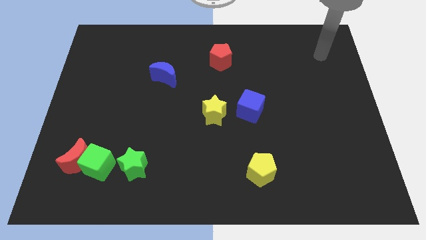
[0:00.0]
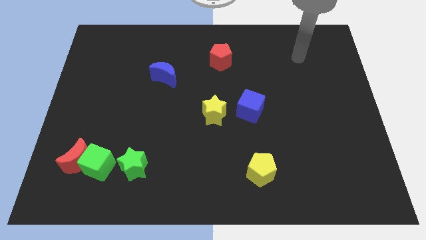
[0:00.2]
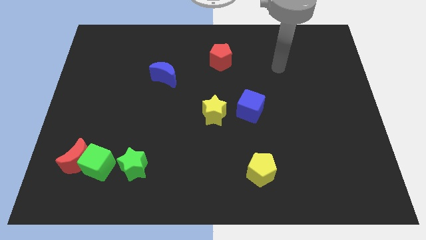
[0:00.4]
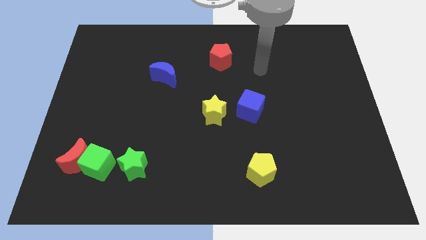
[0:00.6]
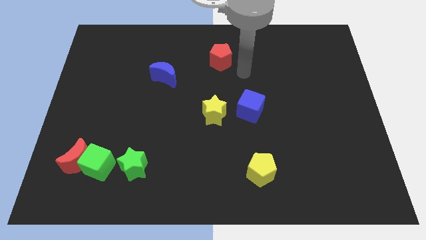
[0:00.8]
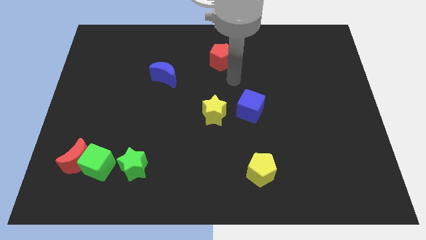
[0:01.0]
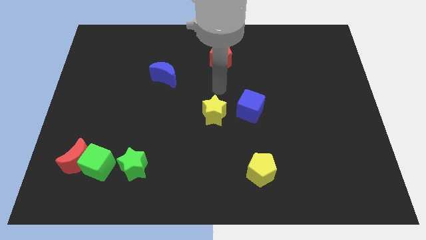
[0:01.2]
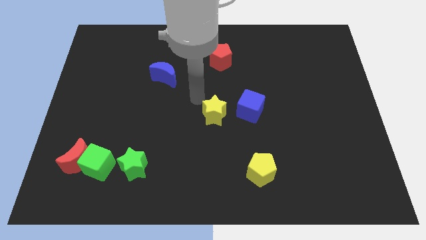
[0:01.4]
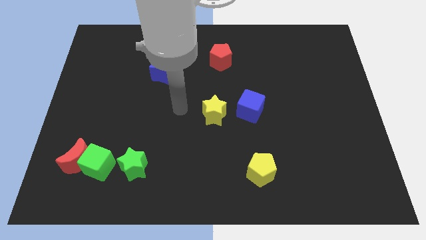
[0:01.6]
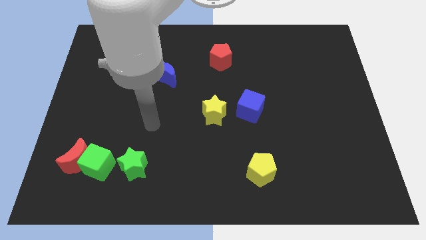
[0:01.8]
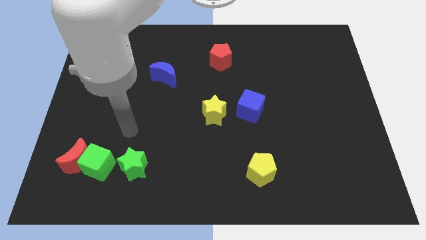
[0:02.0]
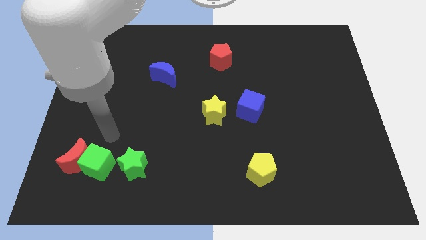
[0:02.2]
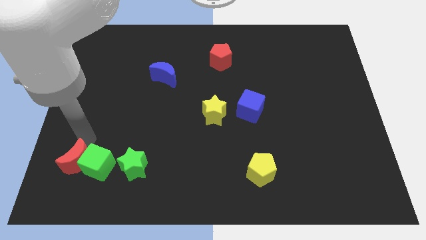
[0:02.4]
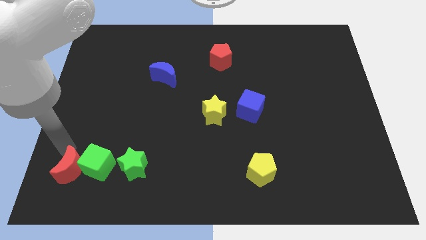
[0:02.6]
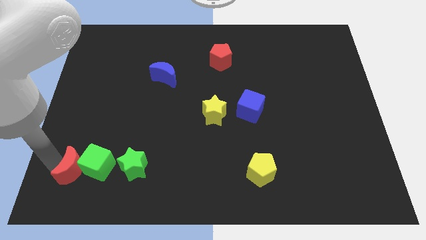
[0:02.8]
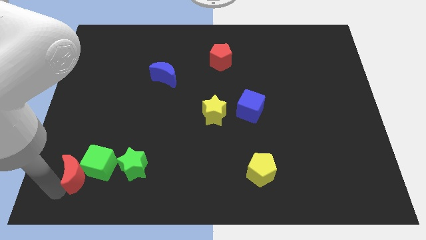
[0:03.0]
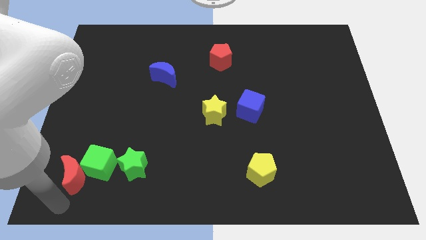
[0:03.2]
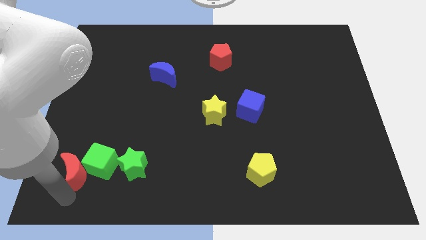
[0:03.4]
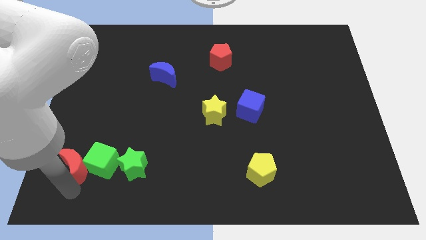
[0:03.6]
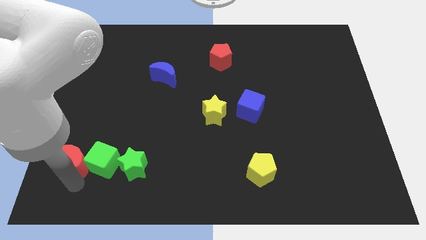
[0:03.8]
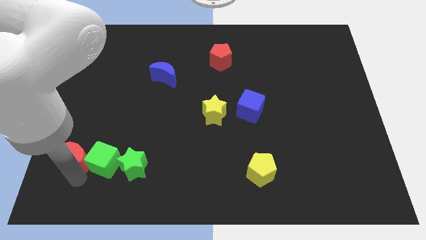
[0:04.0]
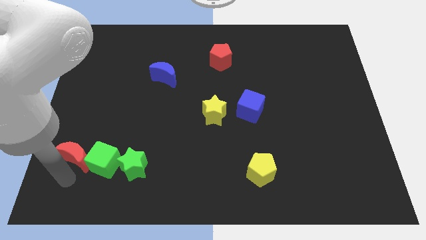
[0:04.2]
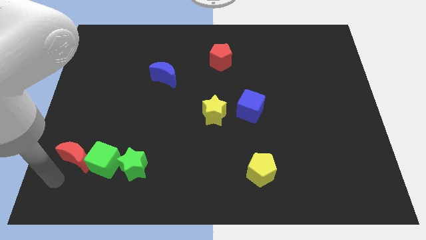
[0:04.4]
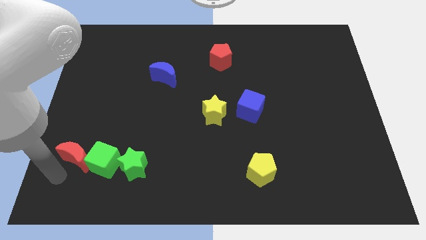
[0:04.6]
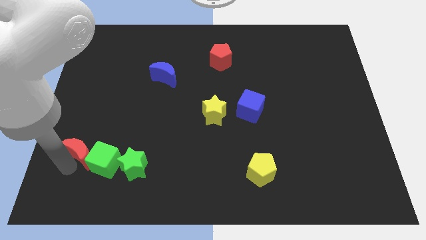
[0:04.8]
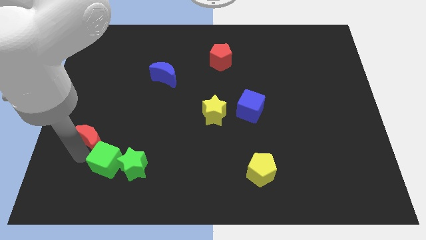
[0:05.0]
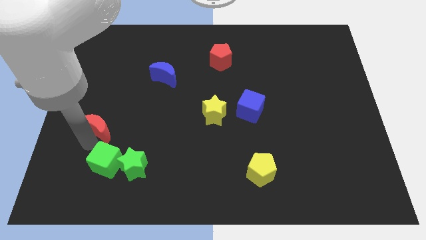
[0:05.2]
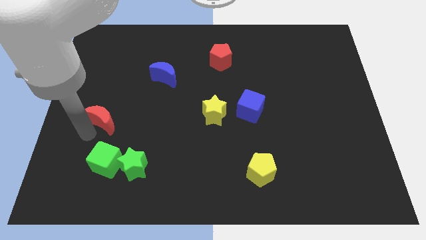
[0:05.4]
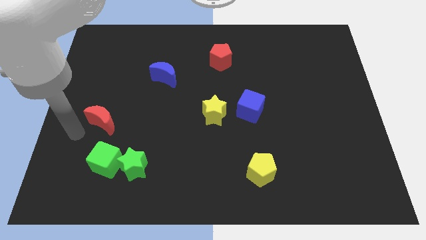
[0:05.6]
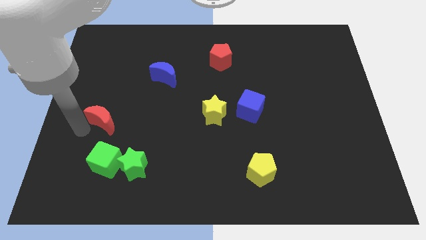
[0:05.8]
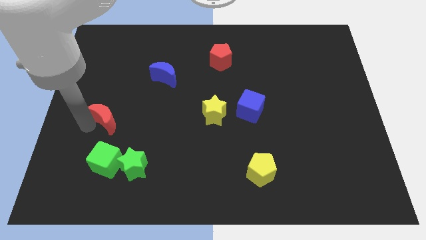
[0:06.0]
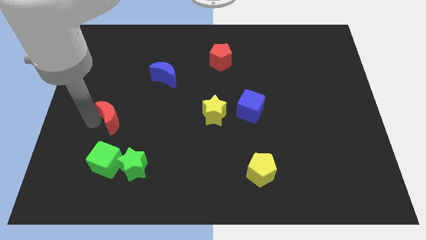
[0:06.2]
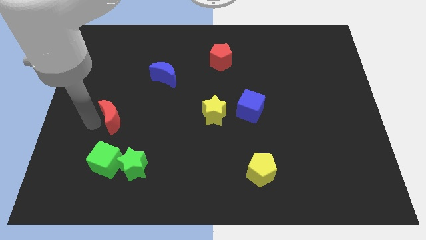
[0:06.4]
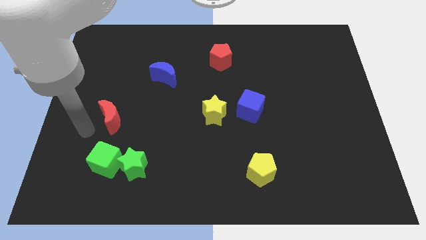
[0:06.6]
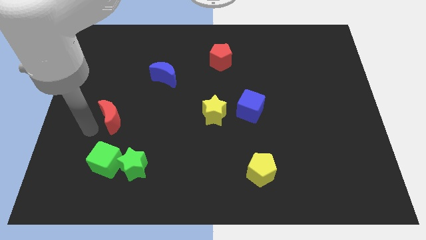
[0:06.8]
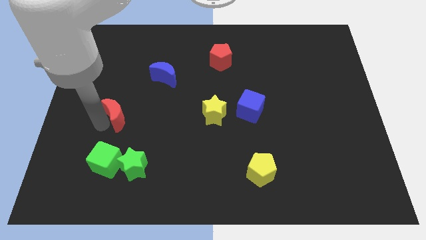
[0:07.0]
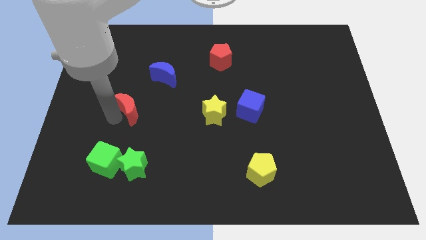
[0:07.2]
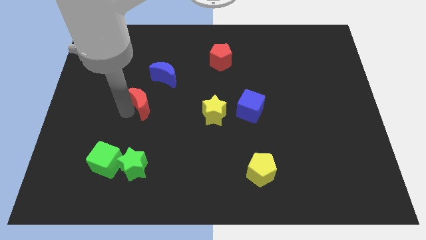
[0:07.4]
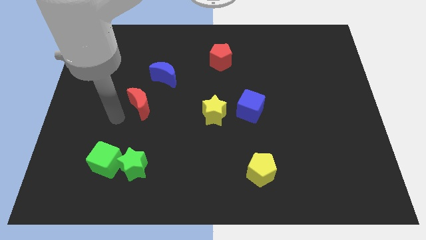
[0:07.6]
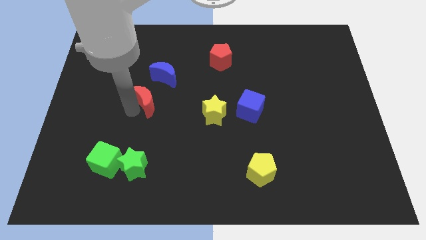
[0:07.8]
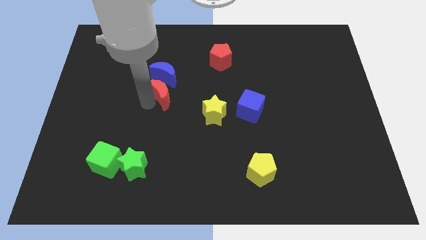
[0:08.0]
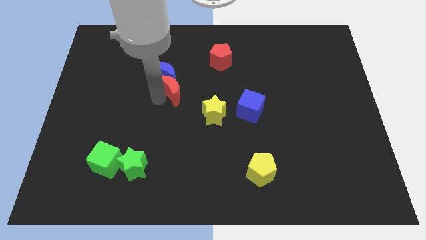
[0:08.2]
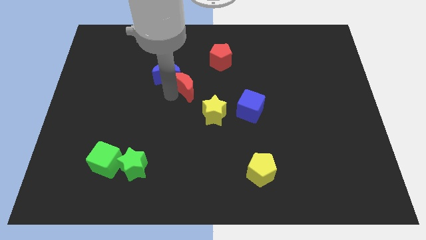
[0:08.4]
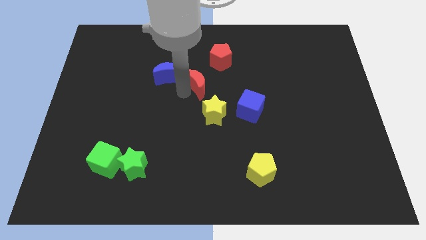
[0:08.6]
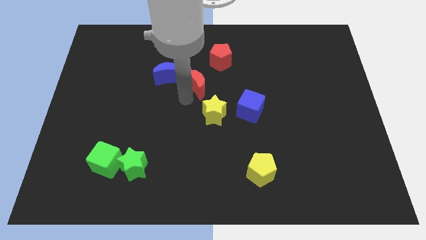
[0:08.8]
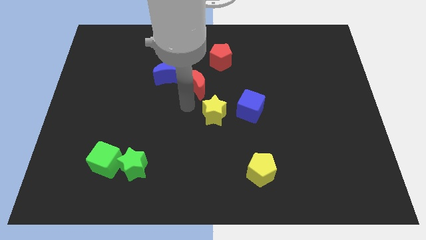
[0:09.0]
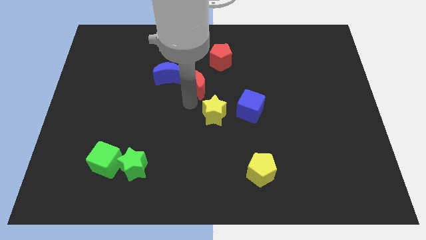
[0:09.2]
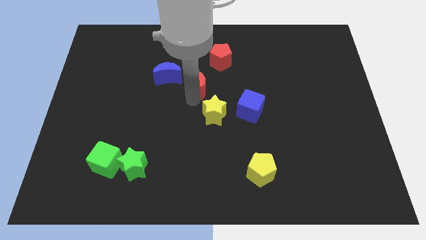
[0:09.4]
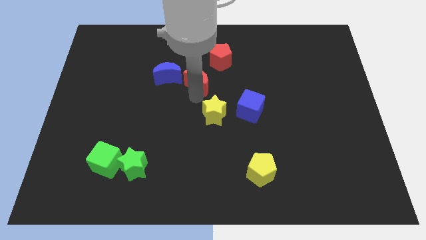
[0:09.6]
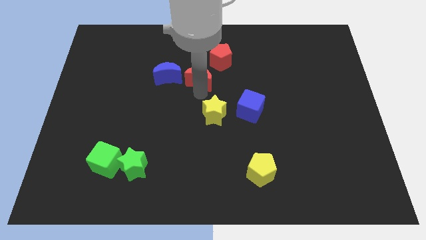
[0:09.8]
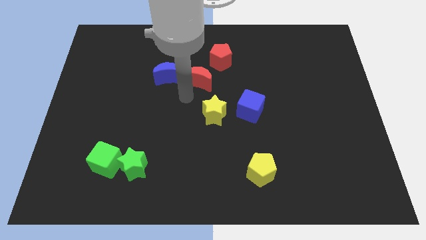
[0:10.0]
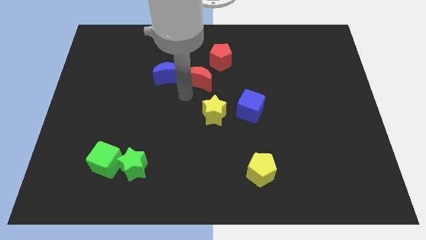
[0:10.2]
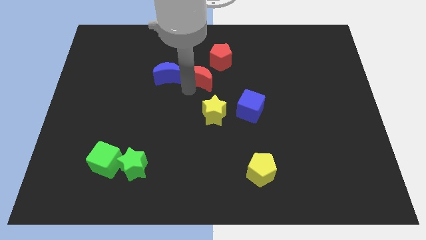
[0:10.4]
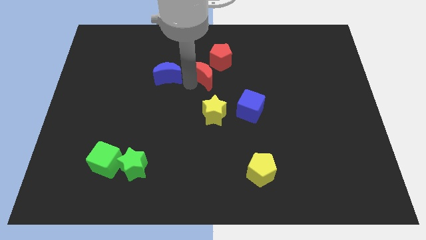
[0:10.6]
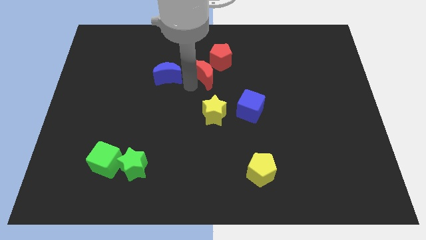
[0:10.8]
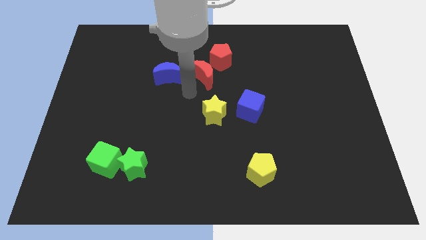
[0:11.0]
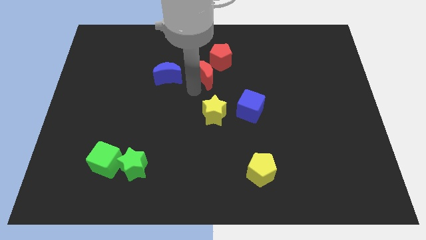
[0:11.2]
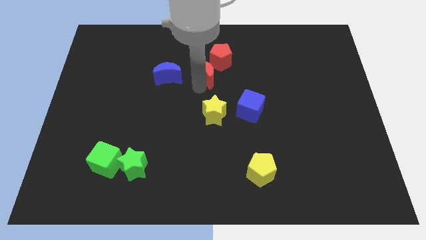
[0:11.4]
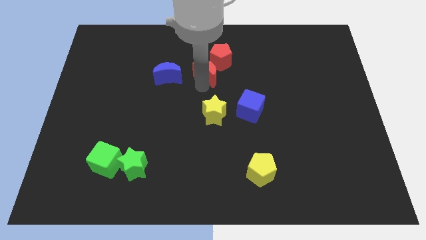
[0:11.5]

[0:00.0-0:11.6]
put the red moon to the red pentagon

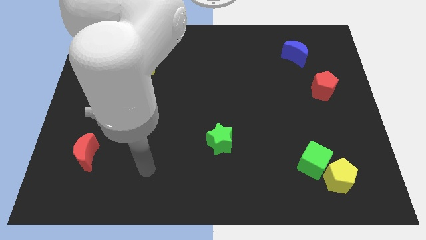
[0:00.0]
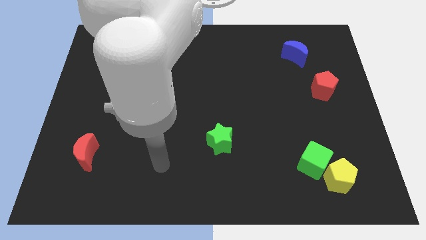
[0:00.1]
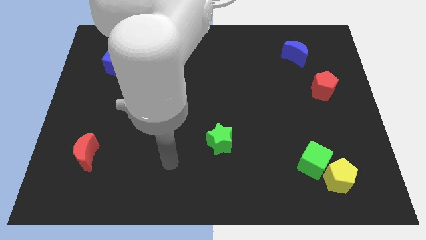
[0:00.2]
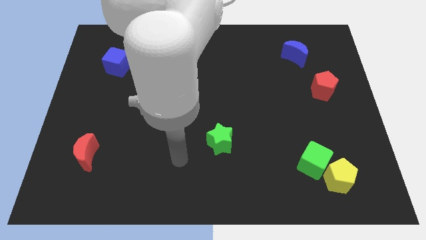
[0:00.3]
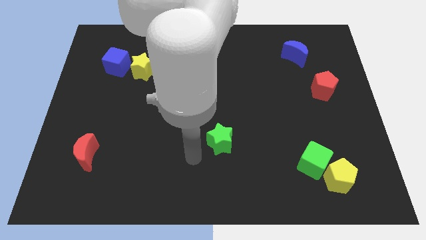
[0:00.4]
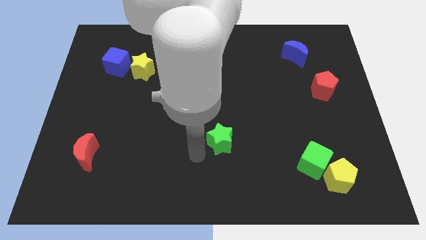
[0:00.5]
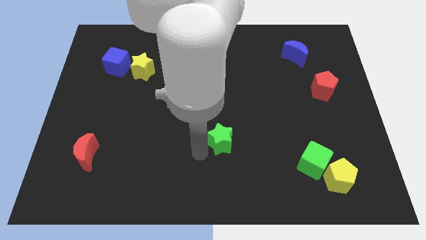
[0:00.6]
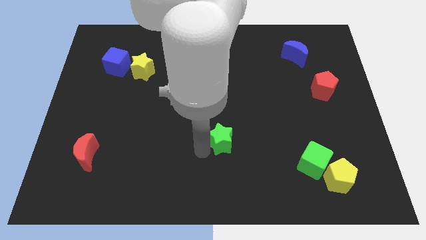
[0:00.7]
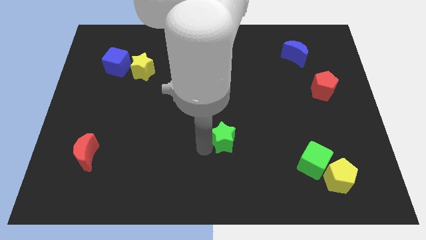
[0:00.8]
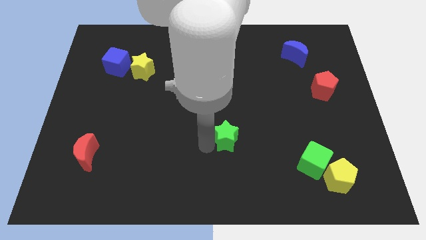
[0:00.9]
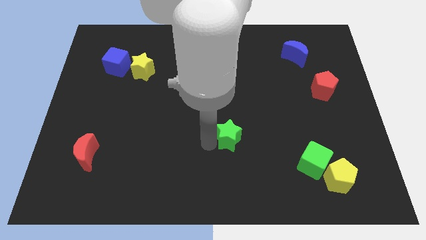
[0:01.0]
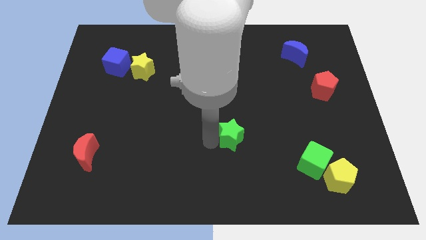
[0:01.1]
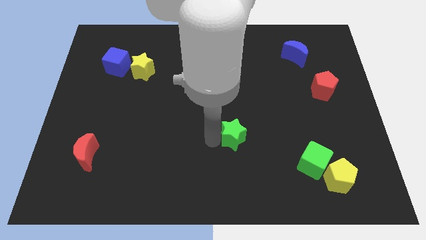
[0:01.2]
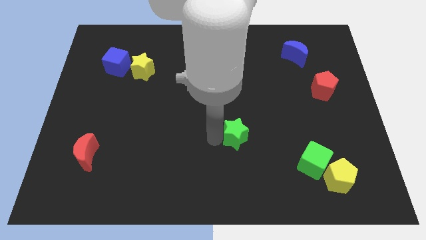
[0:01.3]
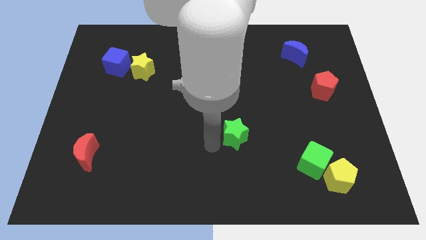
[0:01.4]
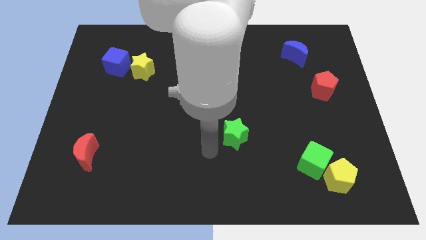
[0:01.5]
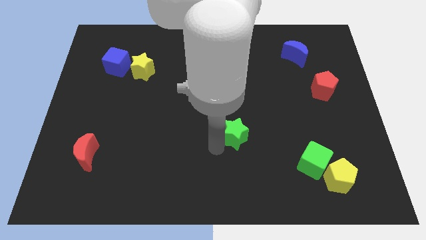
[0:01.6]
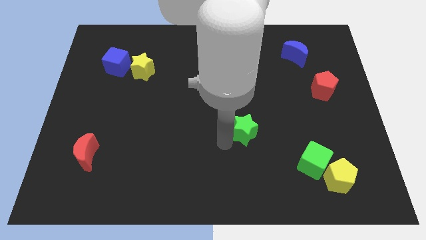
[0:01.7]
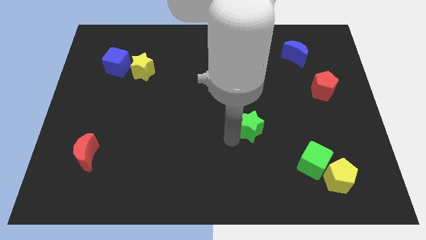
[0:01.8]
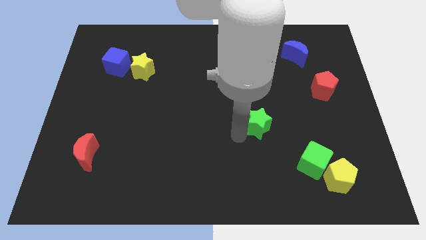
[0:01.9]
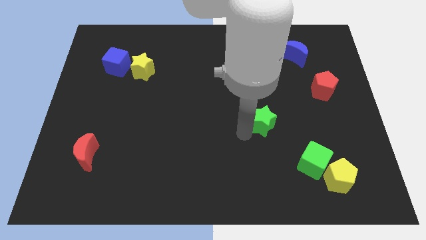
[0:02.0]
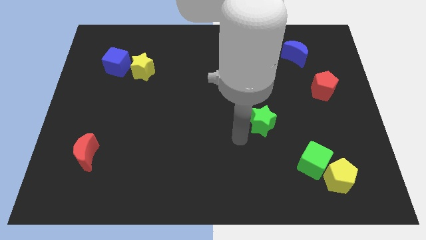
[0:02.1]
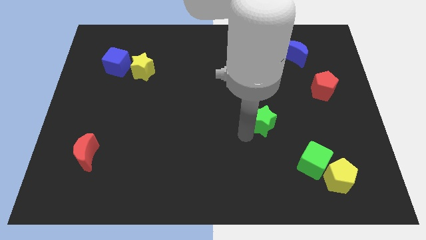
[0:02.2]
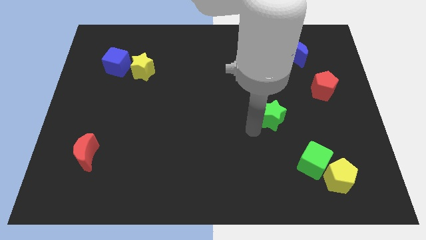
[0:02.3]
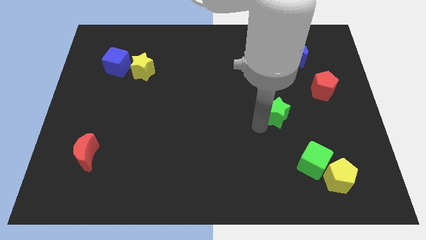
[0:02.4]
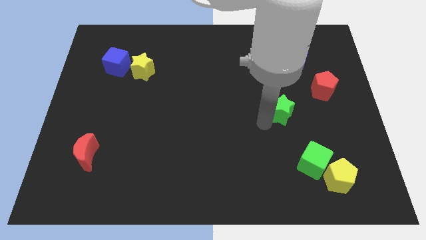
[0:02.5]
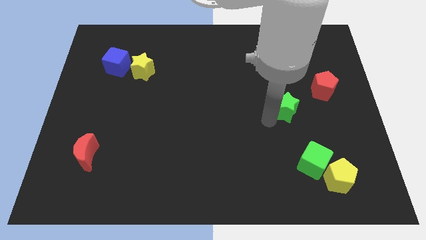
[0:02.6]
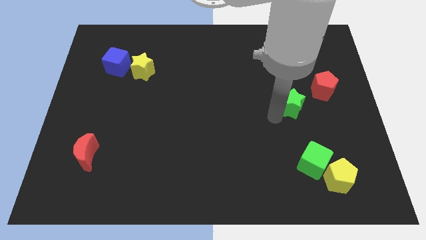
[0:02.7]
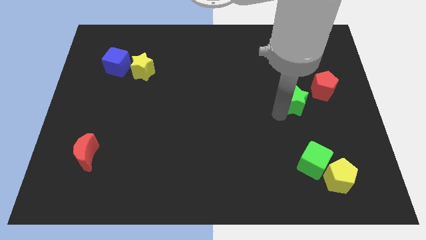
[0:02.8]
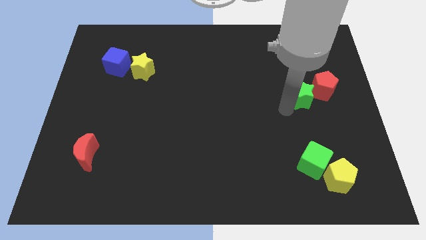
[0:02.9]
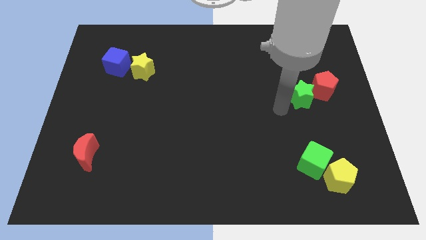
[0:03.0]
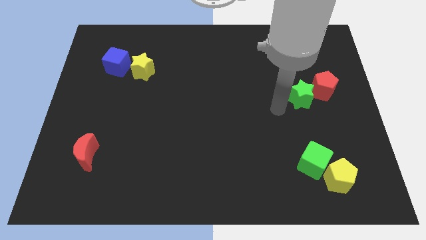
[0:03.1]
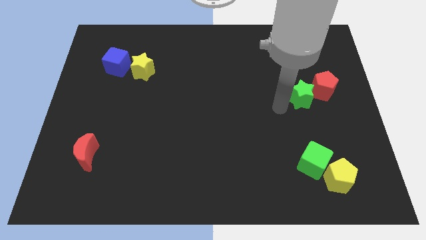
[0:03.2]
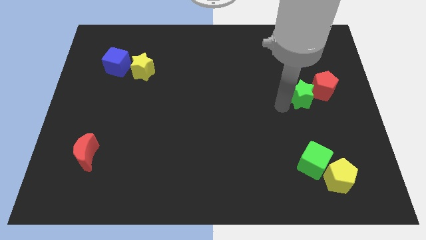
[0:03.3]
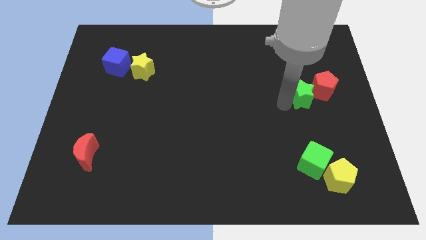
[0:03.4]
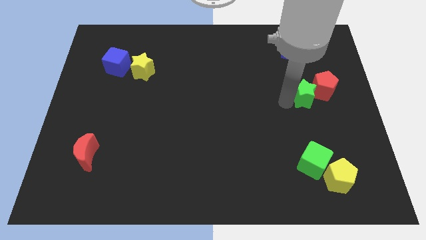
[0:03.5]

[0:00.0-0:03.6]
slide the green star close to the red pentagon
